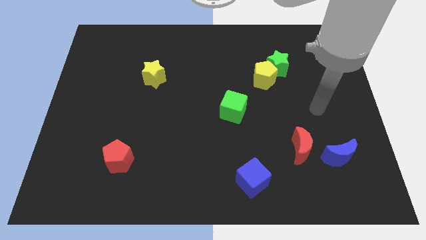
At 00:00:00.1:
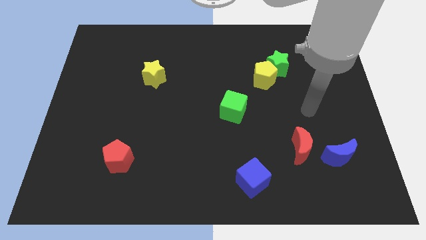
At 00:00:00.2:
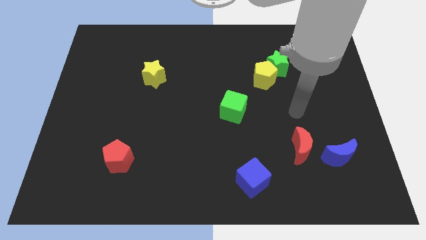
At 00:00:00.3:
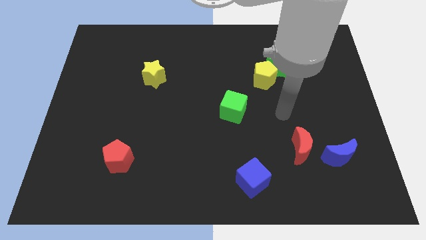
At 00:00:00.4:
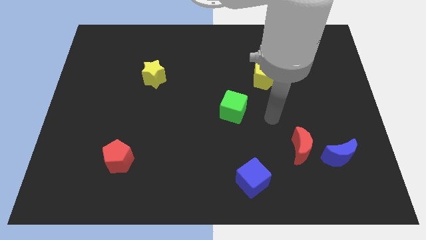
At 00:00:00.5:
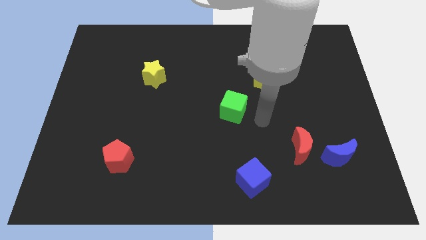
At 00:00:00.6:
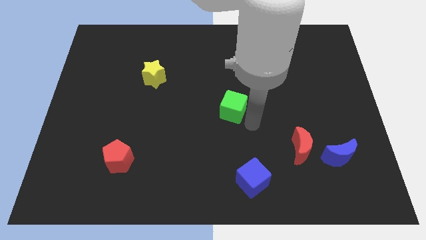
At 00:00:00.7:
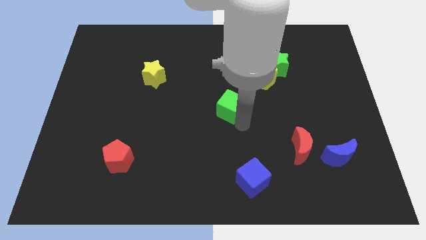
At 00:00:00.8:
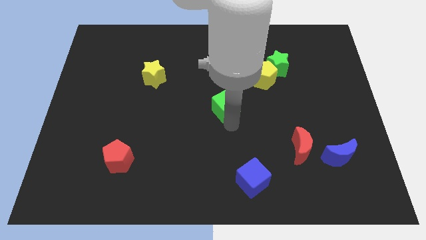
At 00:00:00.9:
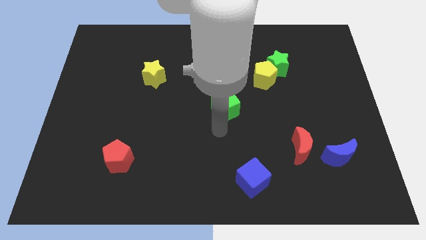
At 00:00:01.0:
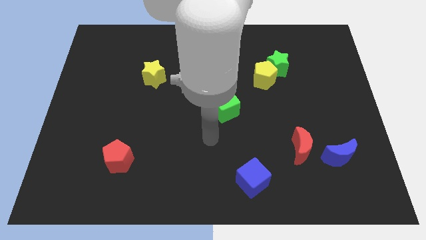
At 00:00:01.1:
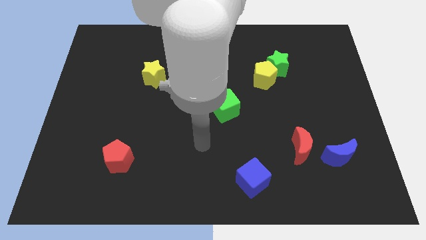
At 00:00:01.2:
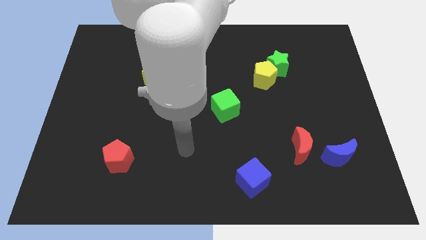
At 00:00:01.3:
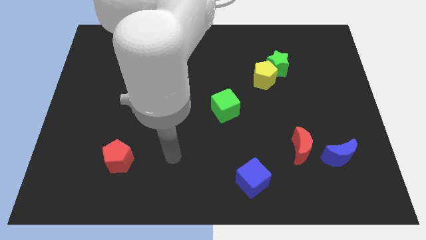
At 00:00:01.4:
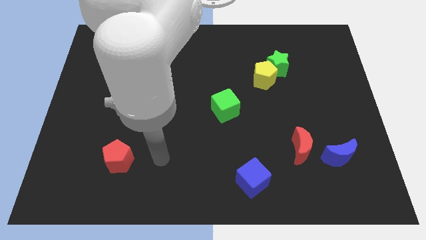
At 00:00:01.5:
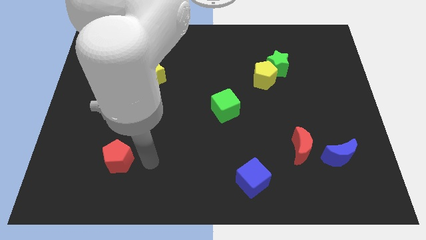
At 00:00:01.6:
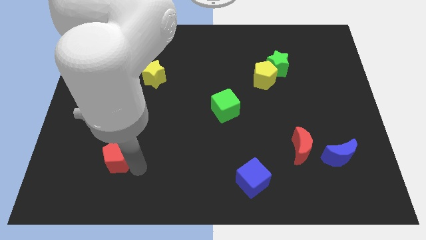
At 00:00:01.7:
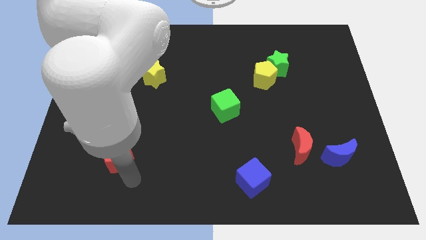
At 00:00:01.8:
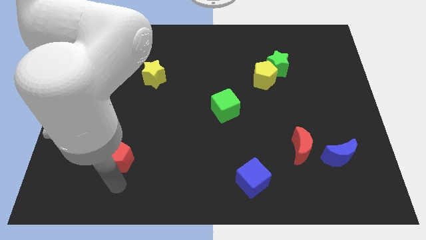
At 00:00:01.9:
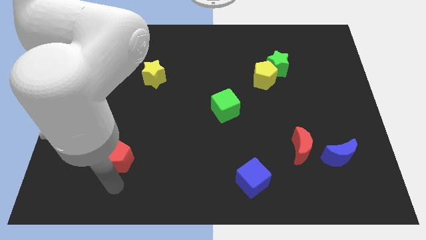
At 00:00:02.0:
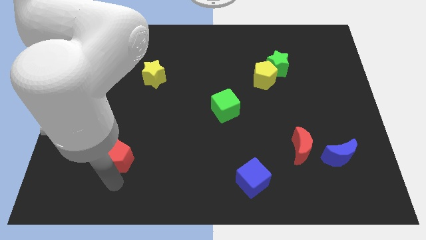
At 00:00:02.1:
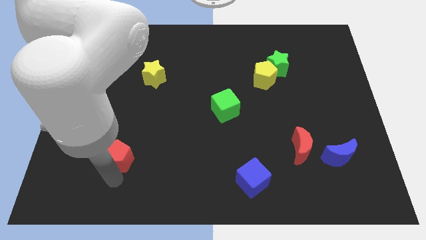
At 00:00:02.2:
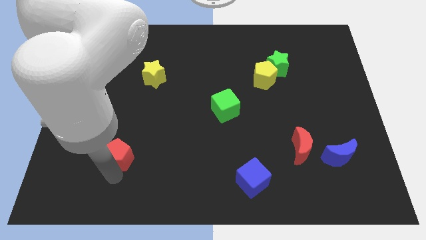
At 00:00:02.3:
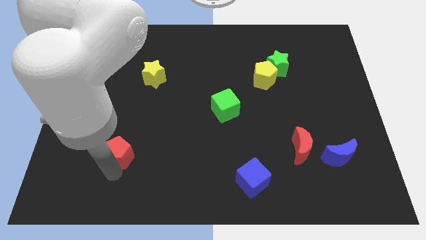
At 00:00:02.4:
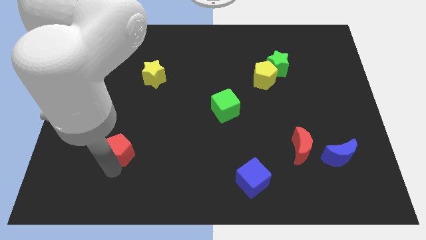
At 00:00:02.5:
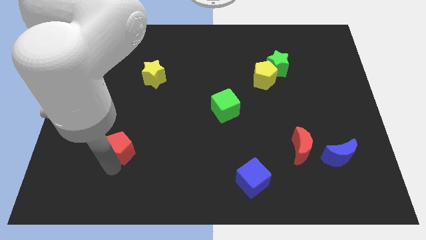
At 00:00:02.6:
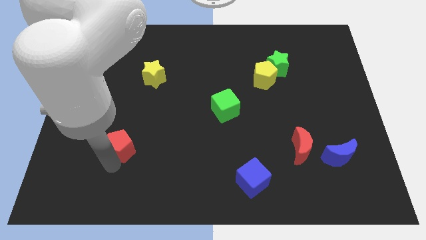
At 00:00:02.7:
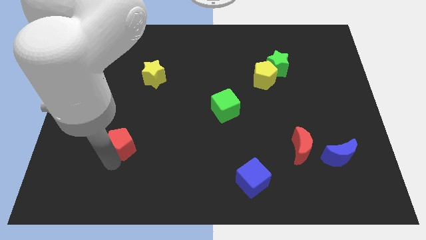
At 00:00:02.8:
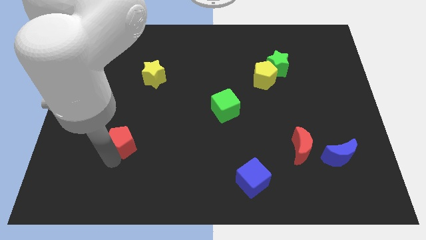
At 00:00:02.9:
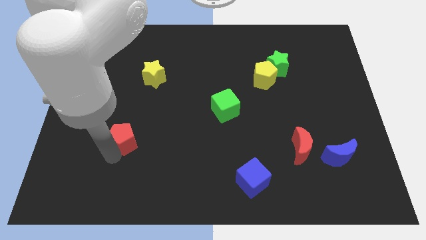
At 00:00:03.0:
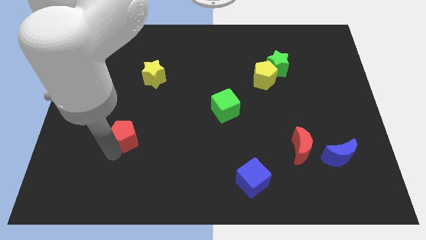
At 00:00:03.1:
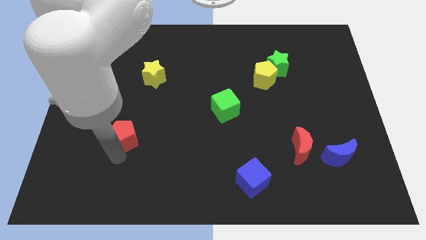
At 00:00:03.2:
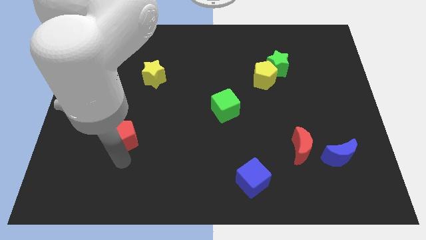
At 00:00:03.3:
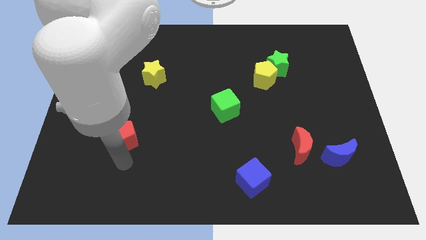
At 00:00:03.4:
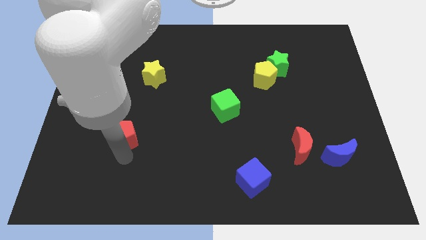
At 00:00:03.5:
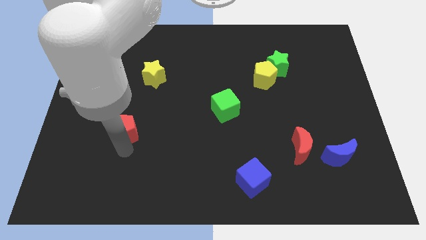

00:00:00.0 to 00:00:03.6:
move the red pentagon upwards slightly

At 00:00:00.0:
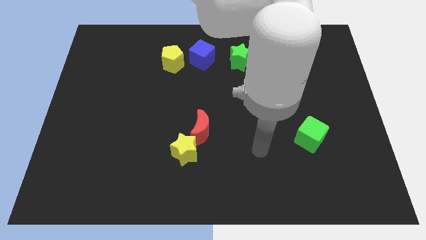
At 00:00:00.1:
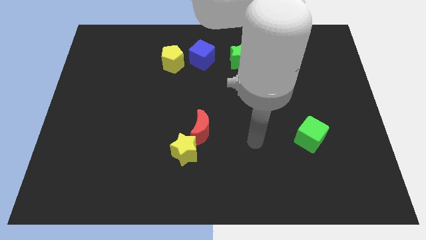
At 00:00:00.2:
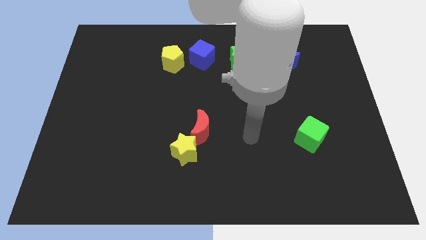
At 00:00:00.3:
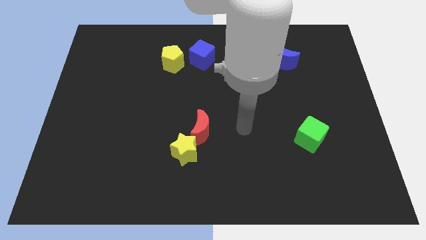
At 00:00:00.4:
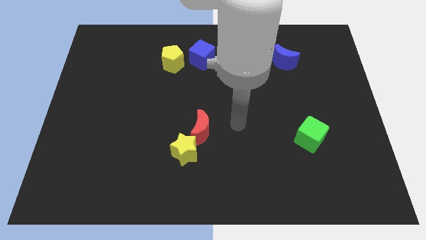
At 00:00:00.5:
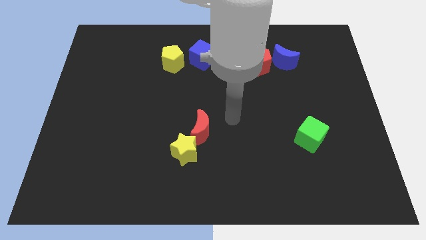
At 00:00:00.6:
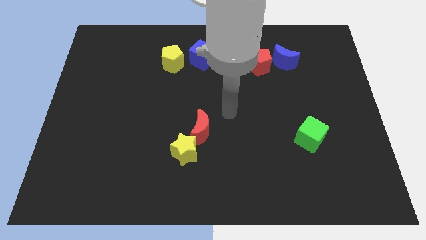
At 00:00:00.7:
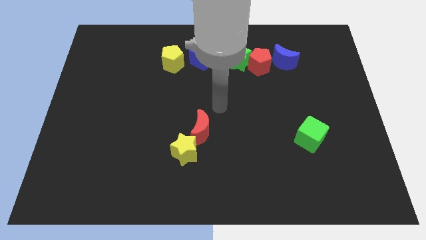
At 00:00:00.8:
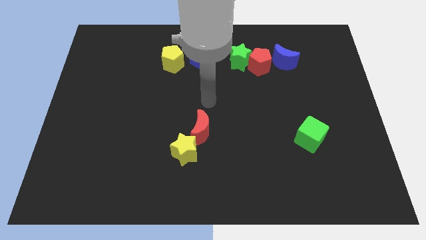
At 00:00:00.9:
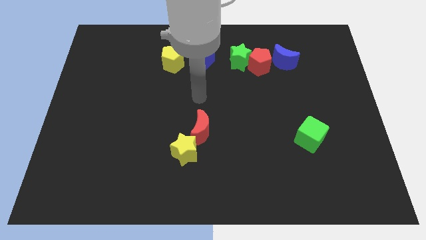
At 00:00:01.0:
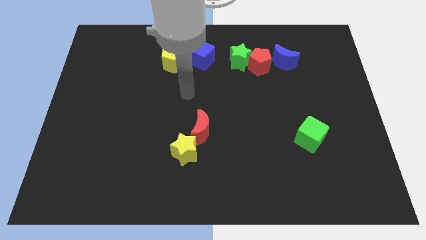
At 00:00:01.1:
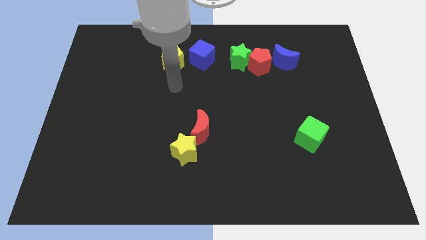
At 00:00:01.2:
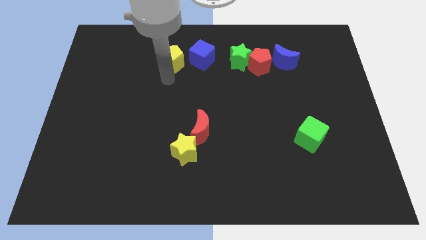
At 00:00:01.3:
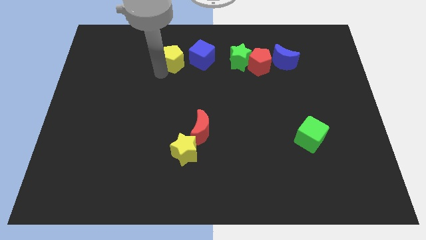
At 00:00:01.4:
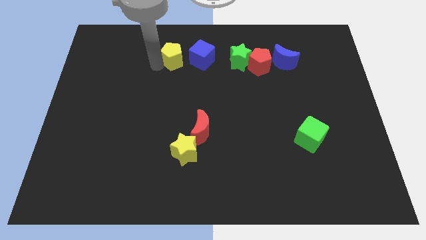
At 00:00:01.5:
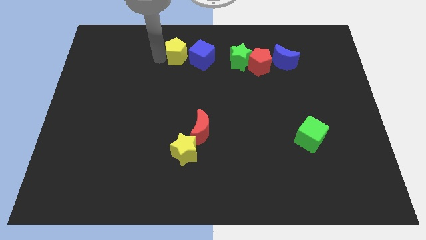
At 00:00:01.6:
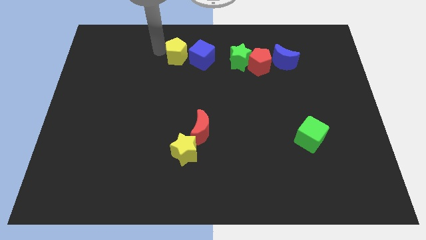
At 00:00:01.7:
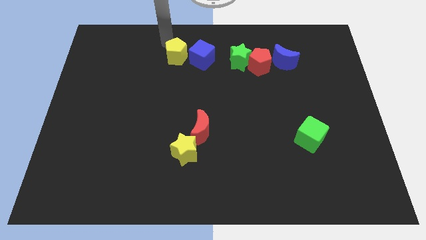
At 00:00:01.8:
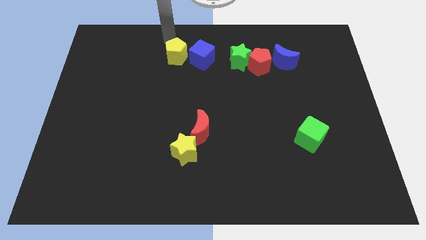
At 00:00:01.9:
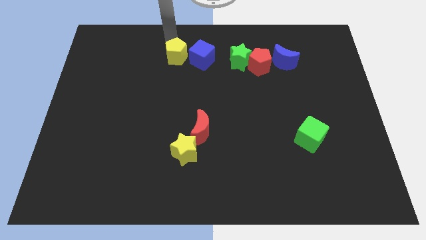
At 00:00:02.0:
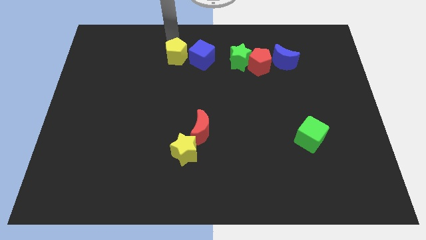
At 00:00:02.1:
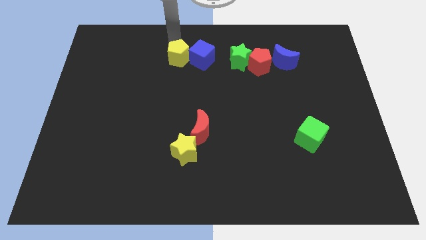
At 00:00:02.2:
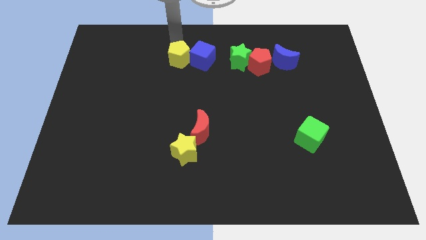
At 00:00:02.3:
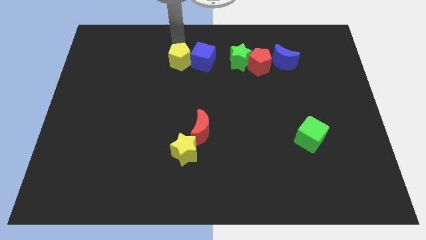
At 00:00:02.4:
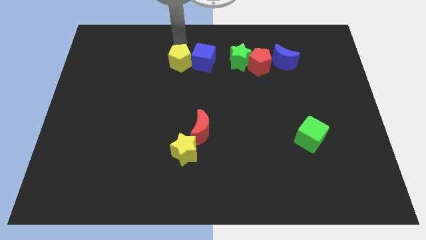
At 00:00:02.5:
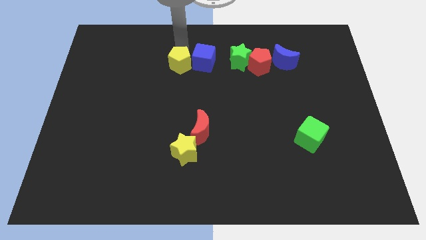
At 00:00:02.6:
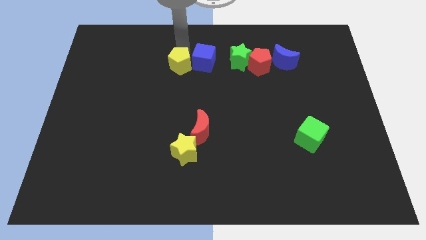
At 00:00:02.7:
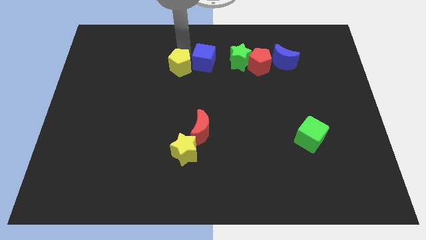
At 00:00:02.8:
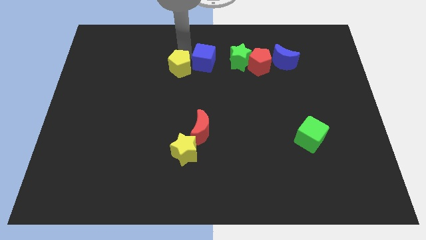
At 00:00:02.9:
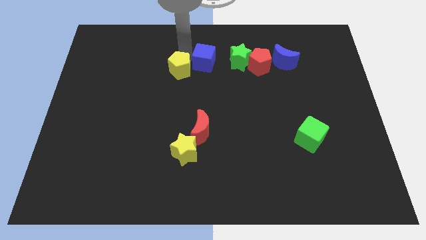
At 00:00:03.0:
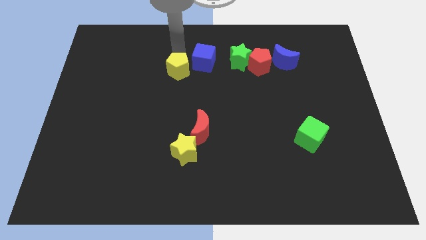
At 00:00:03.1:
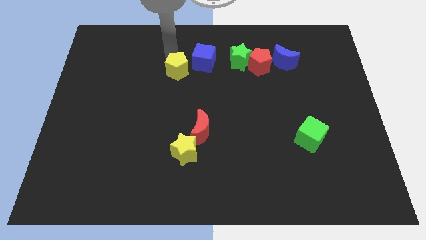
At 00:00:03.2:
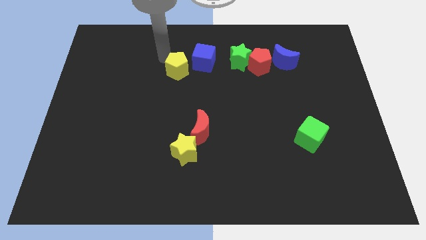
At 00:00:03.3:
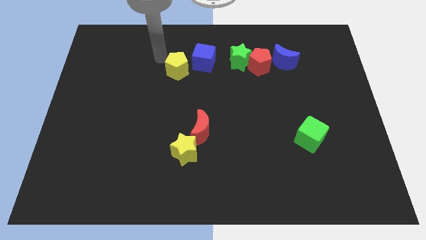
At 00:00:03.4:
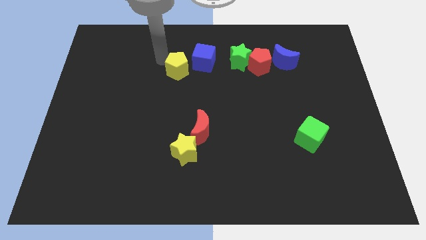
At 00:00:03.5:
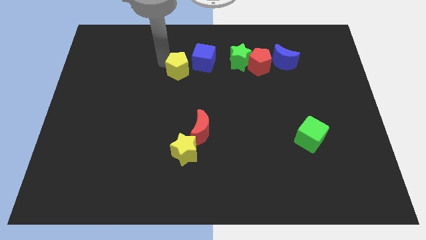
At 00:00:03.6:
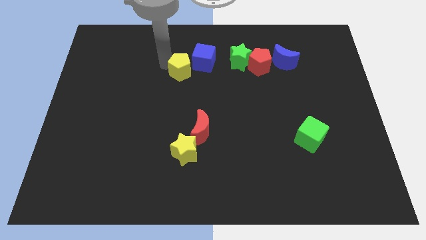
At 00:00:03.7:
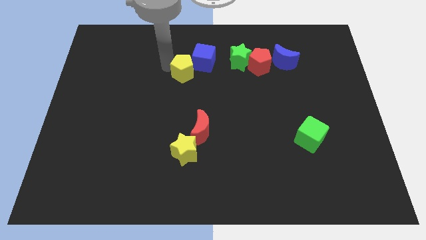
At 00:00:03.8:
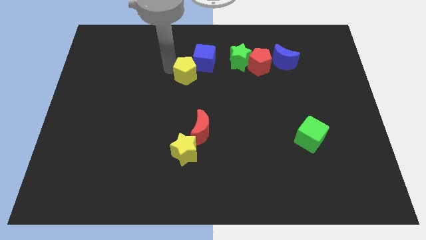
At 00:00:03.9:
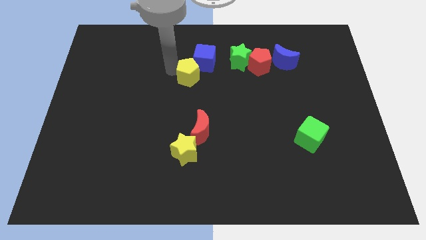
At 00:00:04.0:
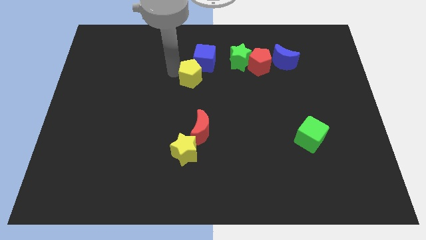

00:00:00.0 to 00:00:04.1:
slightly move the yellow pentagon diagonally down and right
